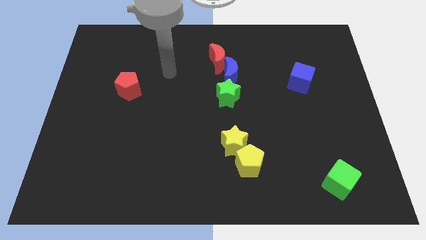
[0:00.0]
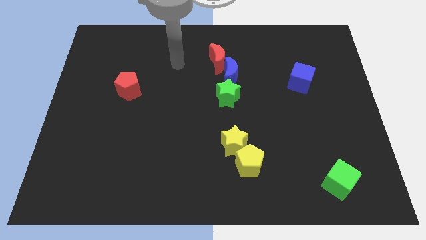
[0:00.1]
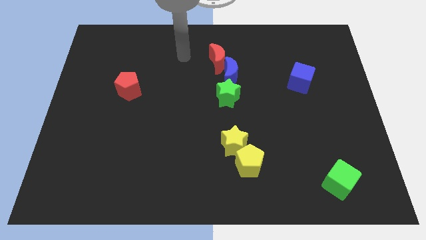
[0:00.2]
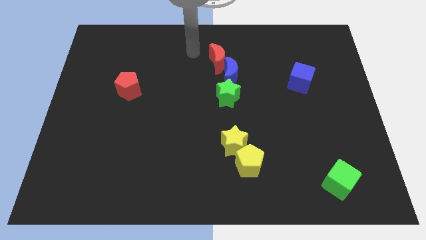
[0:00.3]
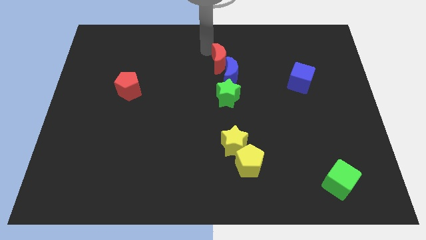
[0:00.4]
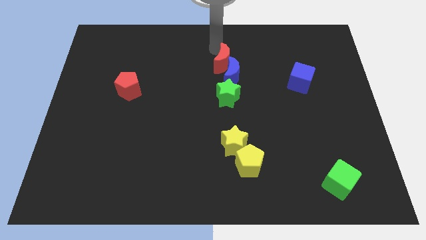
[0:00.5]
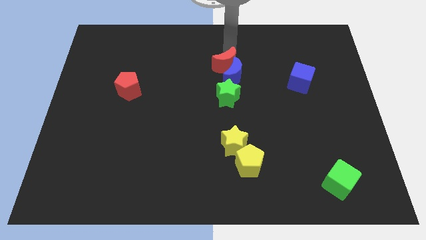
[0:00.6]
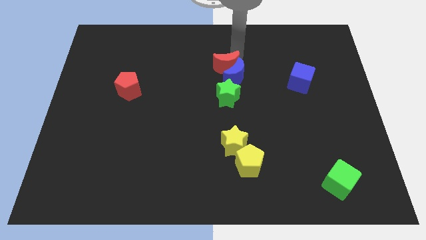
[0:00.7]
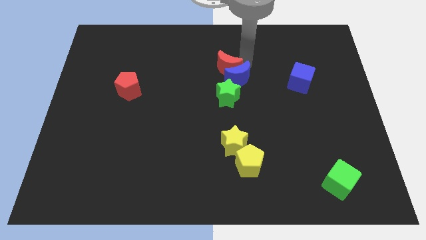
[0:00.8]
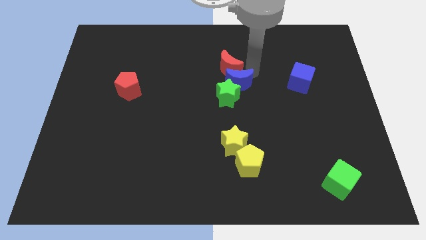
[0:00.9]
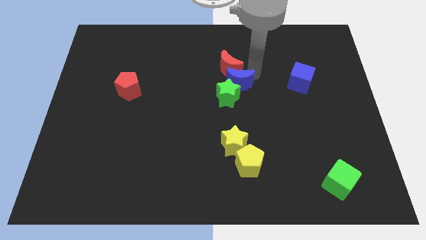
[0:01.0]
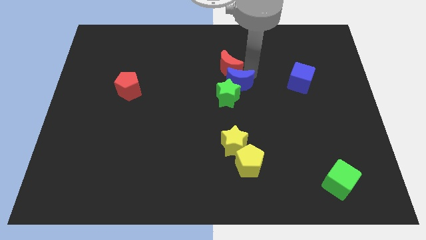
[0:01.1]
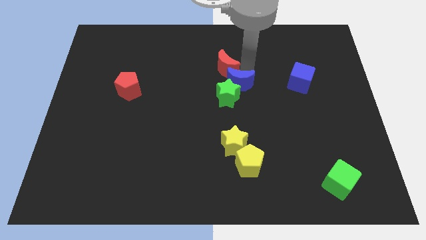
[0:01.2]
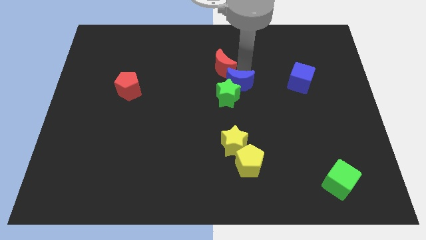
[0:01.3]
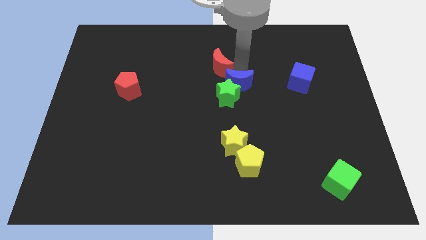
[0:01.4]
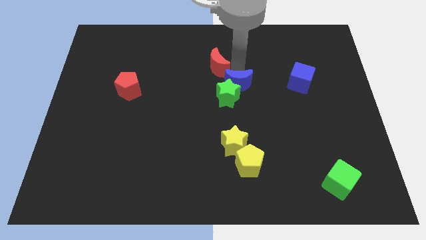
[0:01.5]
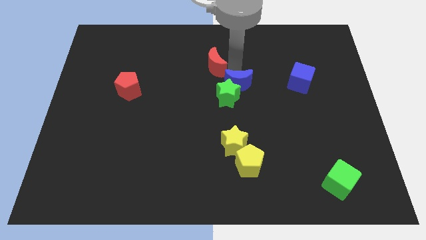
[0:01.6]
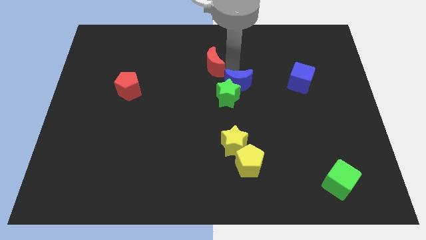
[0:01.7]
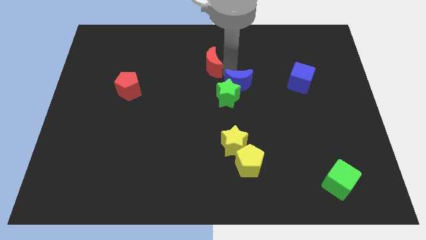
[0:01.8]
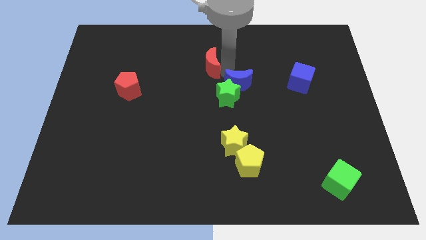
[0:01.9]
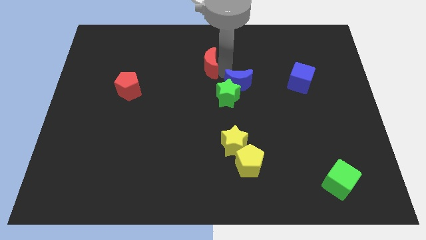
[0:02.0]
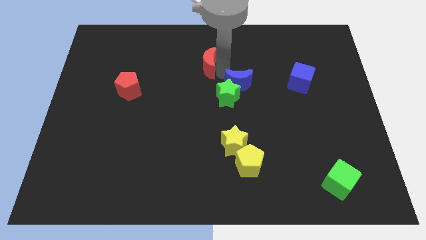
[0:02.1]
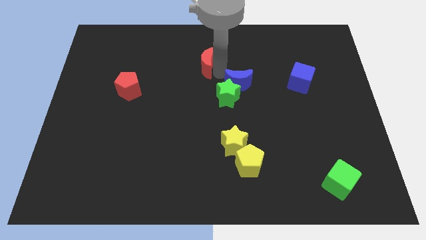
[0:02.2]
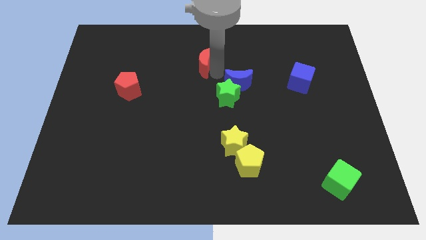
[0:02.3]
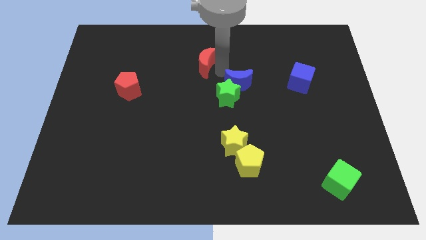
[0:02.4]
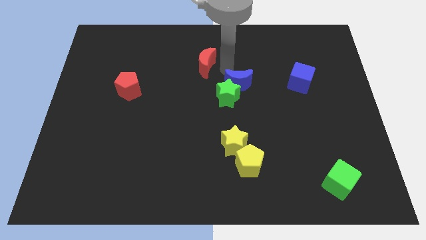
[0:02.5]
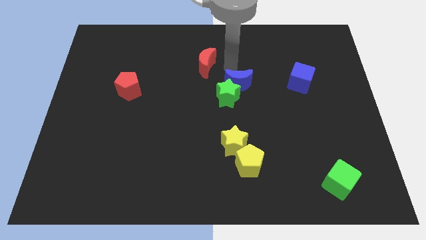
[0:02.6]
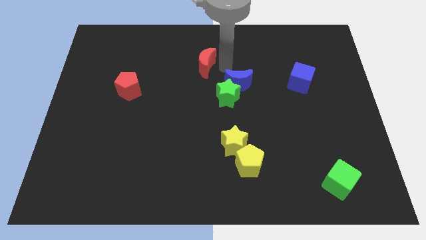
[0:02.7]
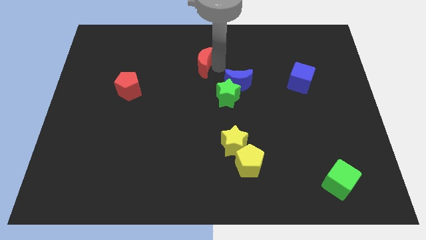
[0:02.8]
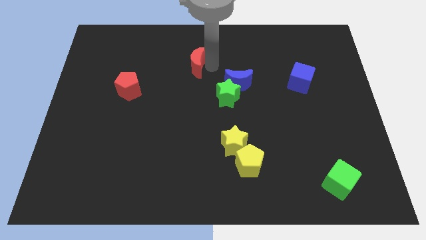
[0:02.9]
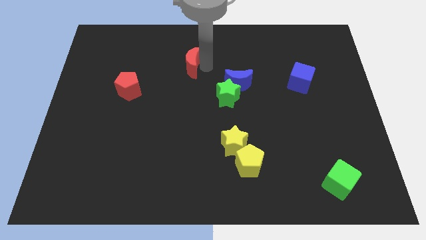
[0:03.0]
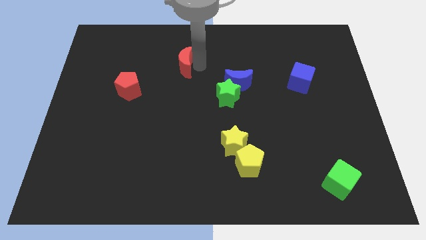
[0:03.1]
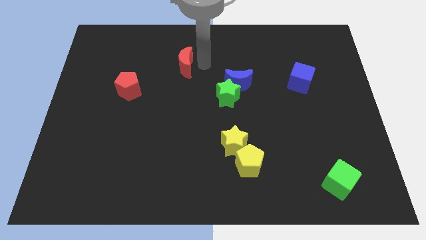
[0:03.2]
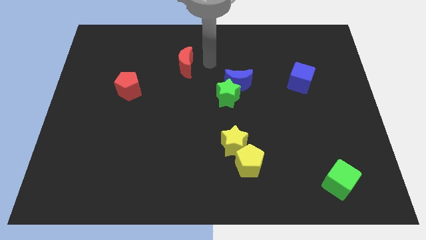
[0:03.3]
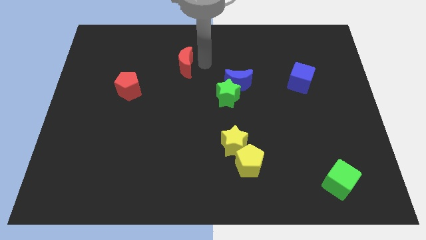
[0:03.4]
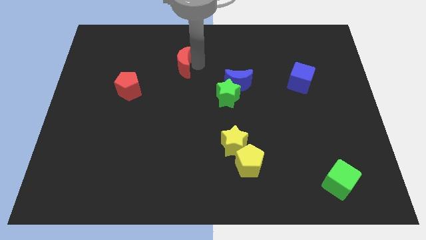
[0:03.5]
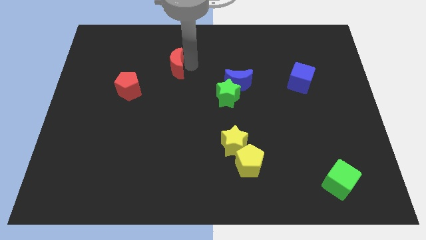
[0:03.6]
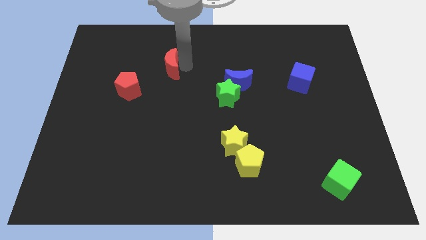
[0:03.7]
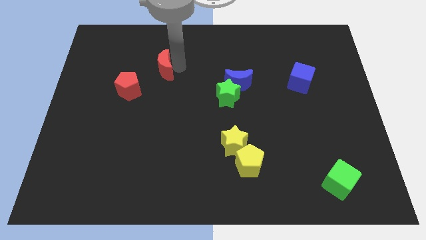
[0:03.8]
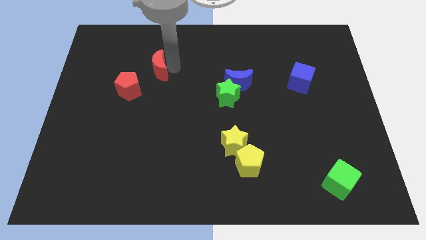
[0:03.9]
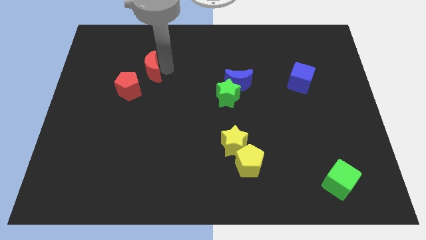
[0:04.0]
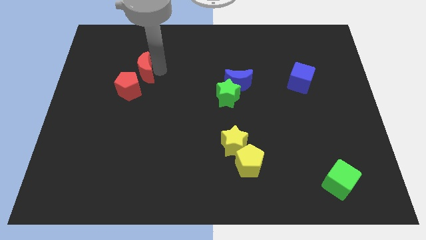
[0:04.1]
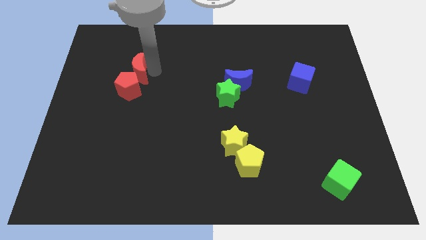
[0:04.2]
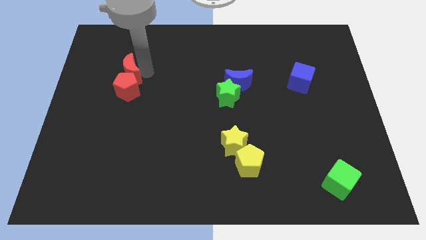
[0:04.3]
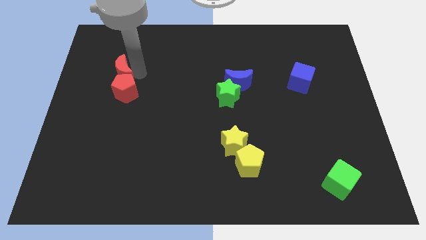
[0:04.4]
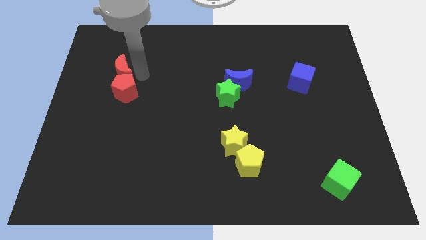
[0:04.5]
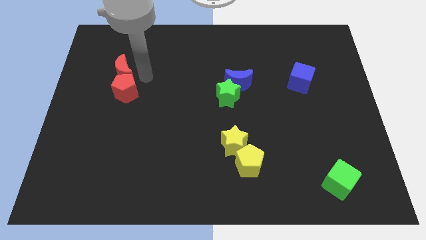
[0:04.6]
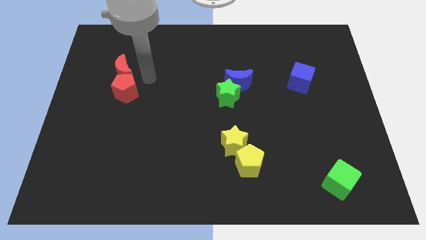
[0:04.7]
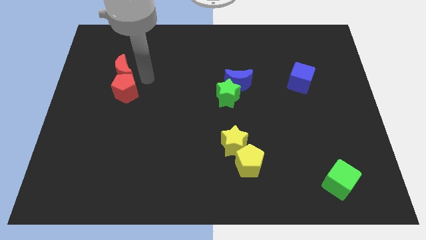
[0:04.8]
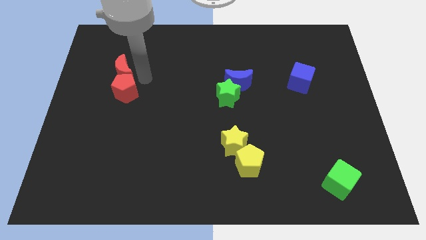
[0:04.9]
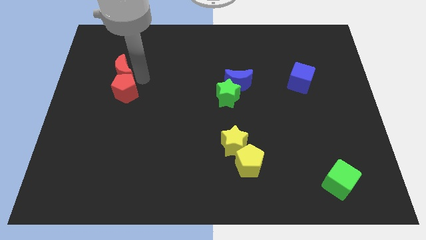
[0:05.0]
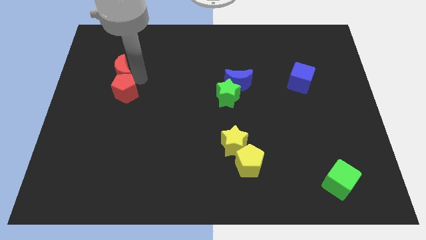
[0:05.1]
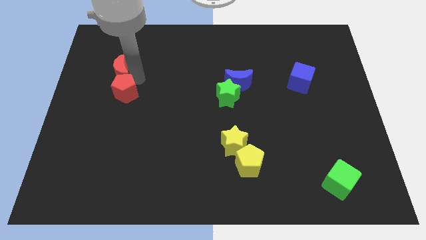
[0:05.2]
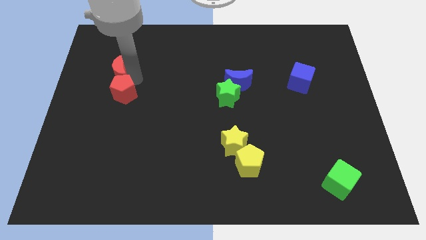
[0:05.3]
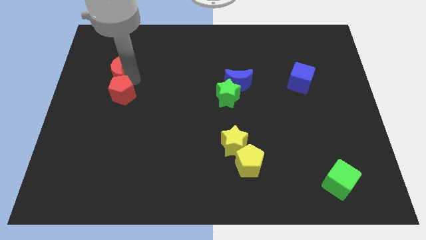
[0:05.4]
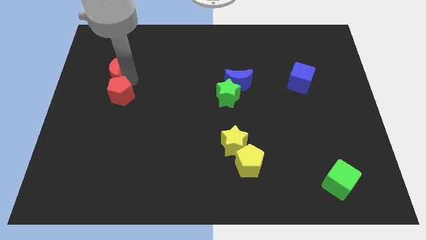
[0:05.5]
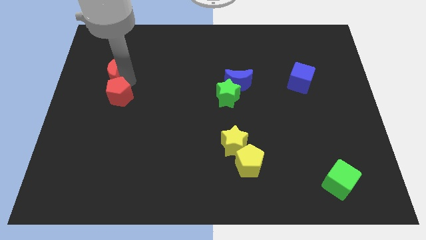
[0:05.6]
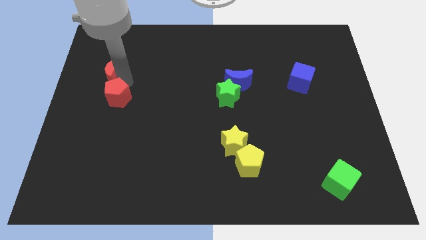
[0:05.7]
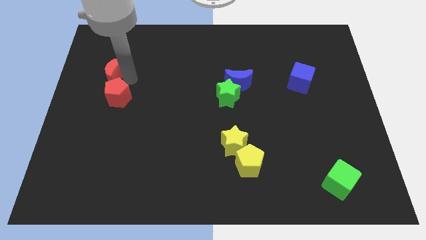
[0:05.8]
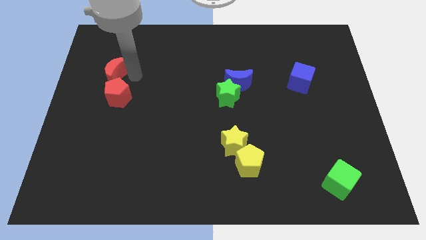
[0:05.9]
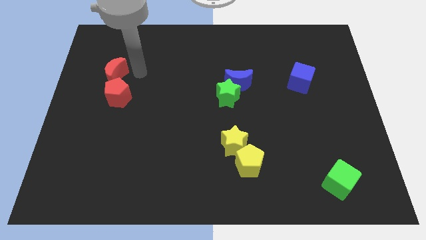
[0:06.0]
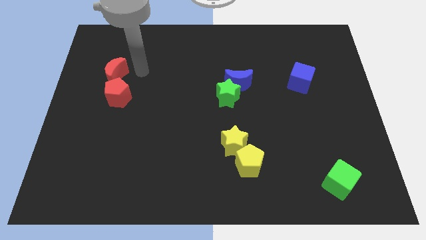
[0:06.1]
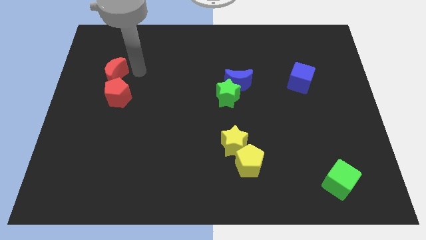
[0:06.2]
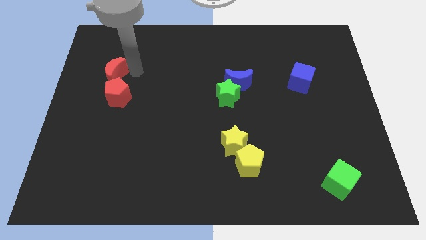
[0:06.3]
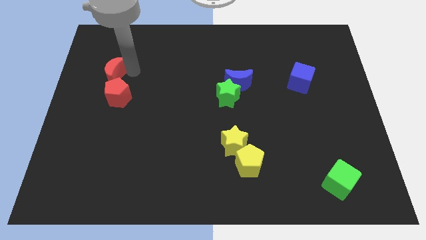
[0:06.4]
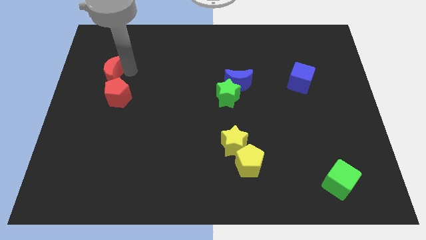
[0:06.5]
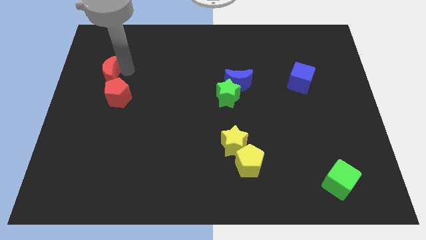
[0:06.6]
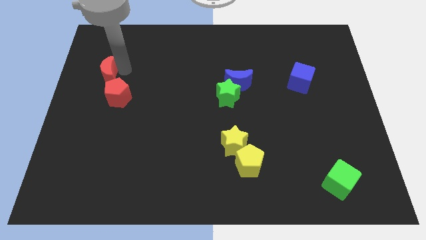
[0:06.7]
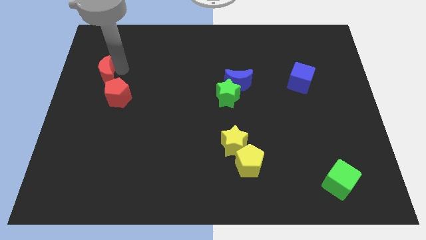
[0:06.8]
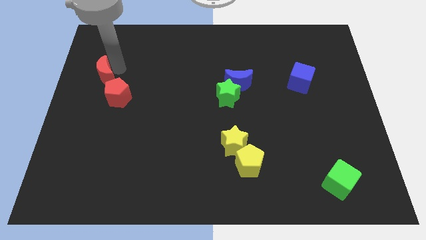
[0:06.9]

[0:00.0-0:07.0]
slide the red moon to the left side
